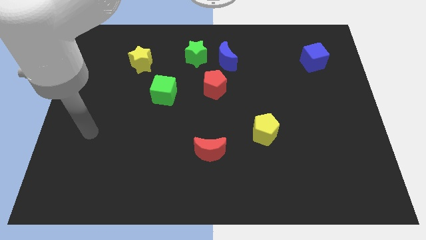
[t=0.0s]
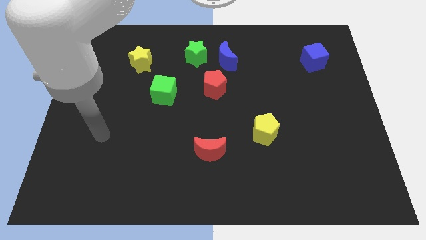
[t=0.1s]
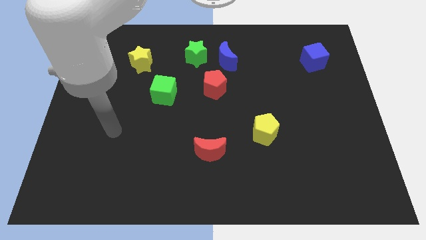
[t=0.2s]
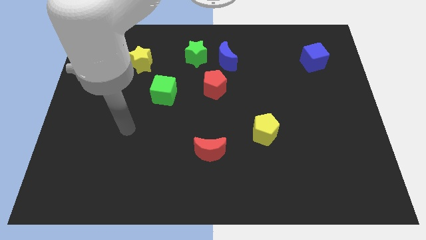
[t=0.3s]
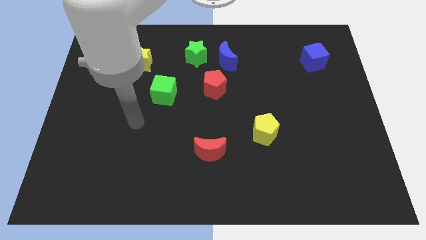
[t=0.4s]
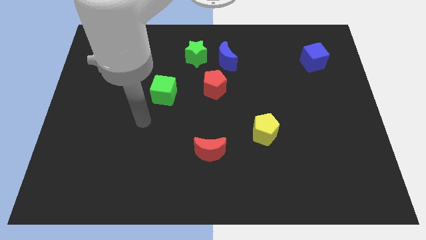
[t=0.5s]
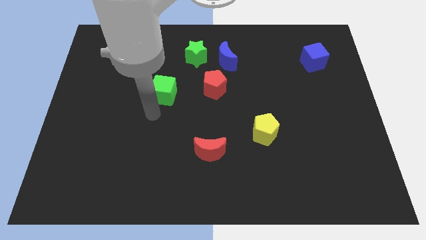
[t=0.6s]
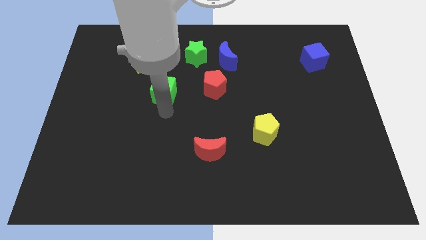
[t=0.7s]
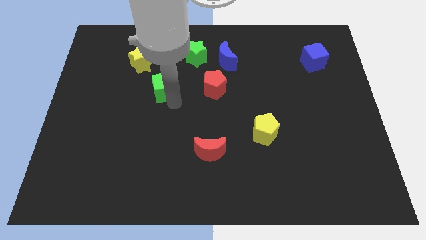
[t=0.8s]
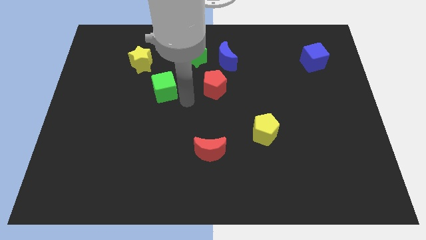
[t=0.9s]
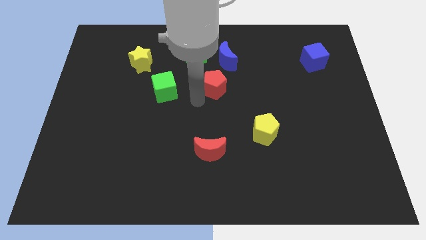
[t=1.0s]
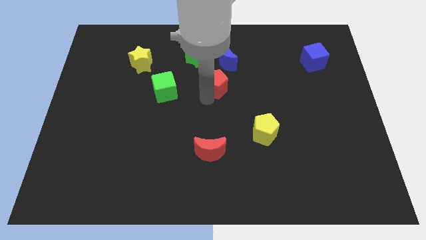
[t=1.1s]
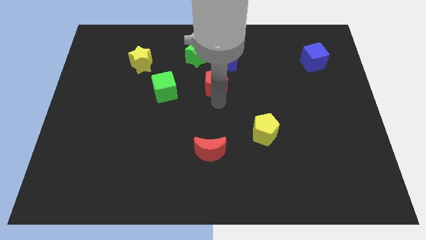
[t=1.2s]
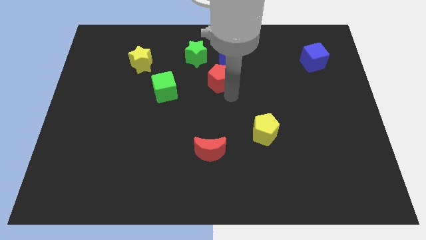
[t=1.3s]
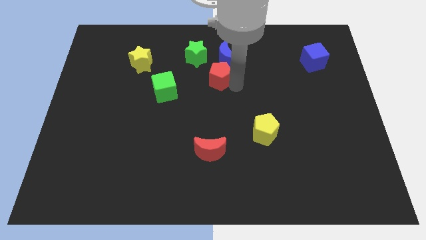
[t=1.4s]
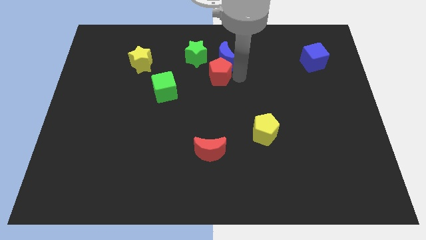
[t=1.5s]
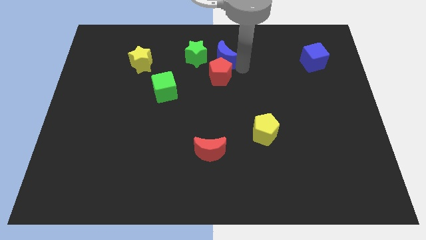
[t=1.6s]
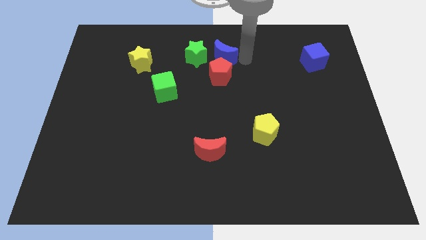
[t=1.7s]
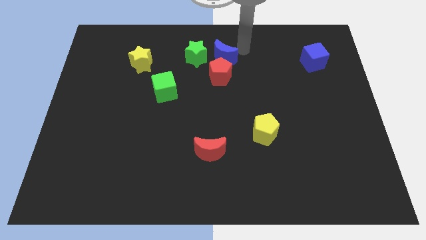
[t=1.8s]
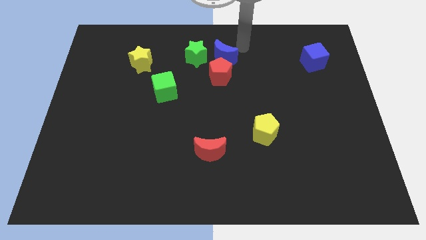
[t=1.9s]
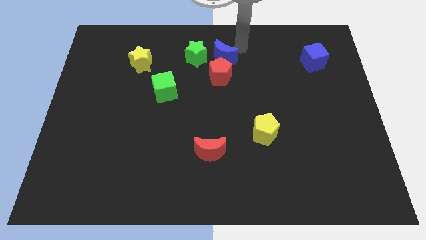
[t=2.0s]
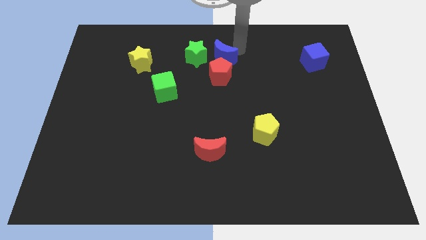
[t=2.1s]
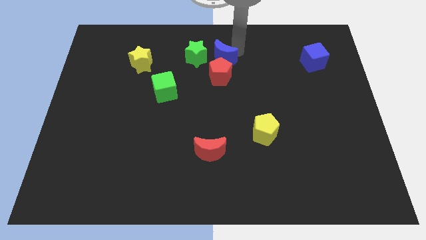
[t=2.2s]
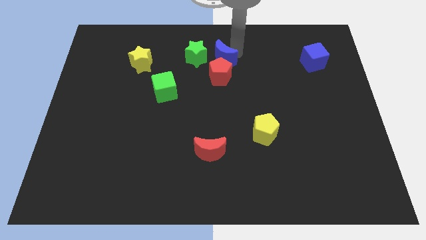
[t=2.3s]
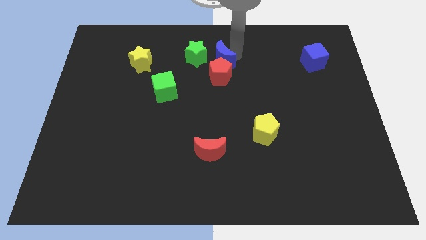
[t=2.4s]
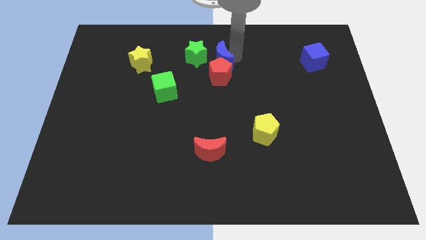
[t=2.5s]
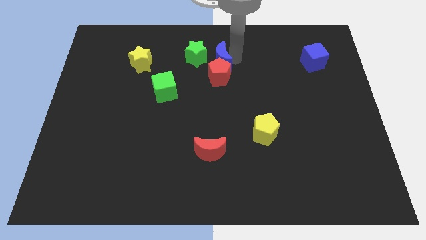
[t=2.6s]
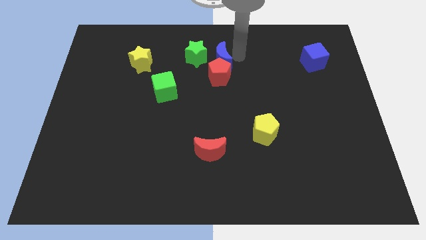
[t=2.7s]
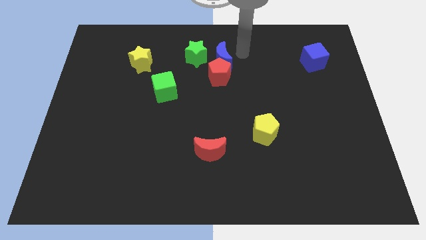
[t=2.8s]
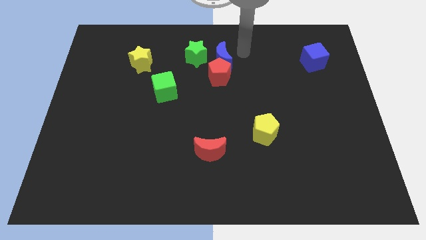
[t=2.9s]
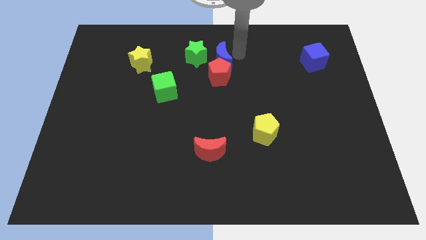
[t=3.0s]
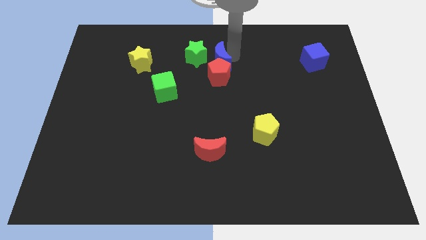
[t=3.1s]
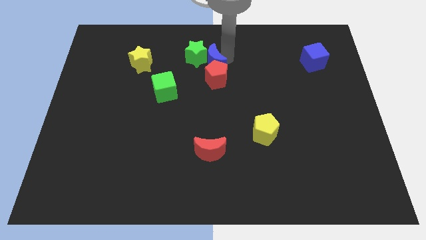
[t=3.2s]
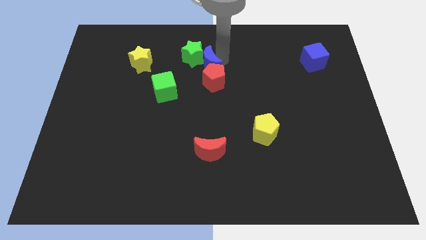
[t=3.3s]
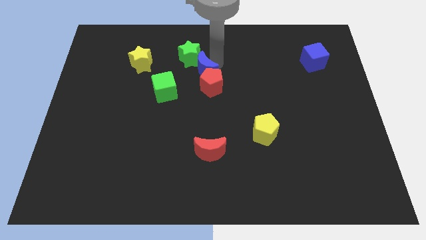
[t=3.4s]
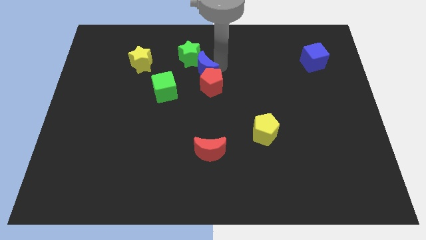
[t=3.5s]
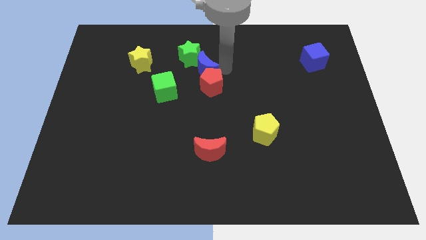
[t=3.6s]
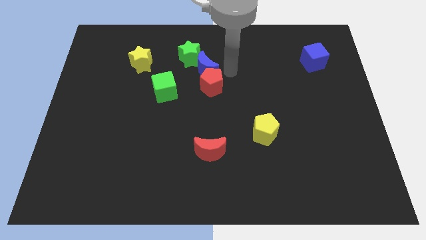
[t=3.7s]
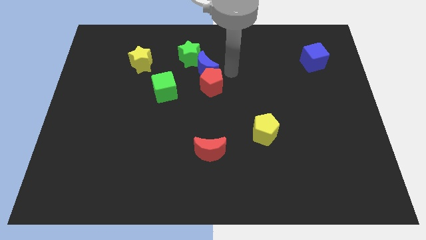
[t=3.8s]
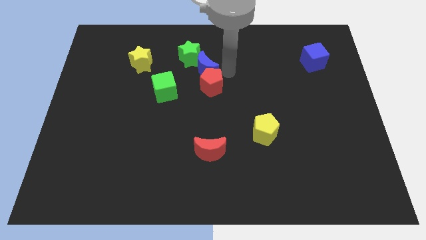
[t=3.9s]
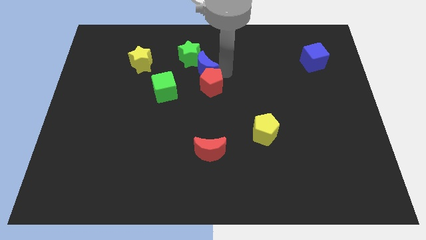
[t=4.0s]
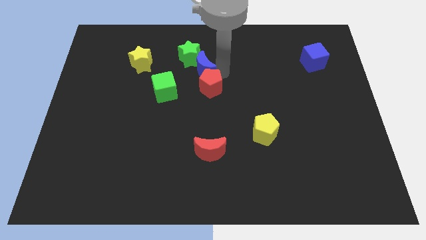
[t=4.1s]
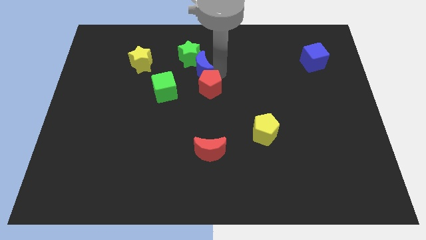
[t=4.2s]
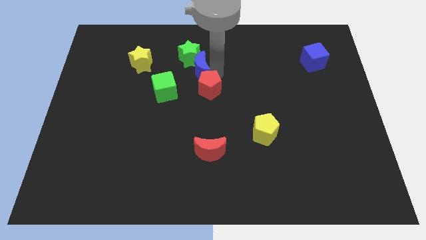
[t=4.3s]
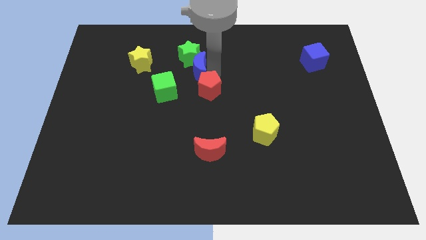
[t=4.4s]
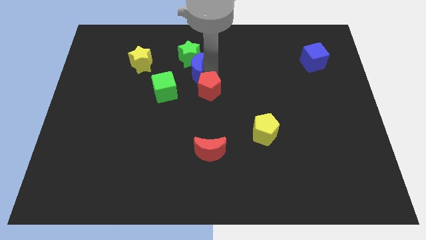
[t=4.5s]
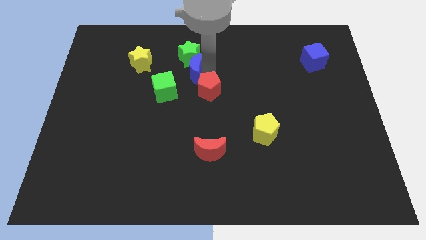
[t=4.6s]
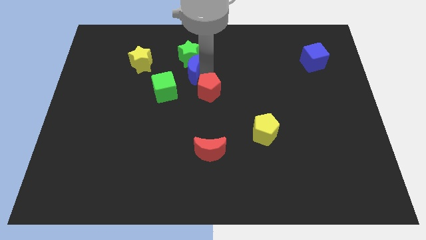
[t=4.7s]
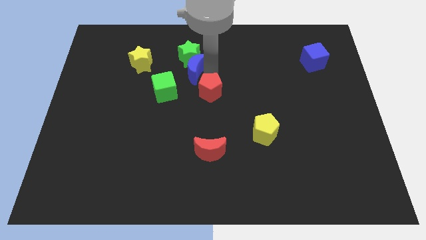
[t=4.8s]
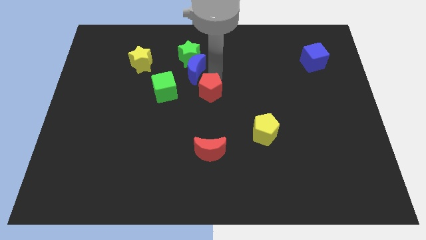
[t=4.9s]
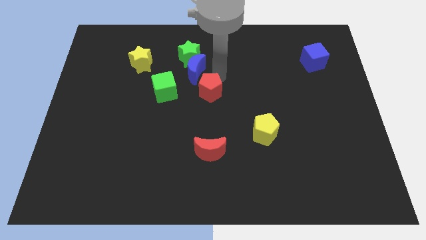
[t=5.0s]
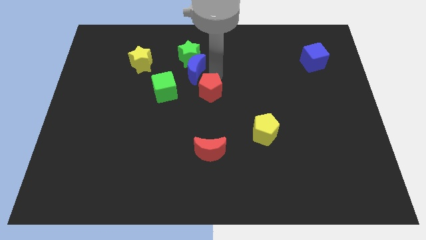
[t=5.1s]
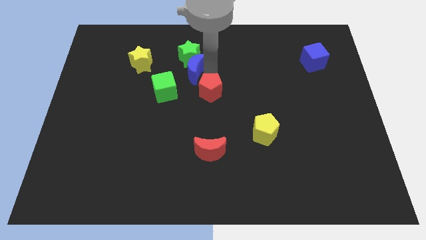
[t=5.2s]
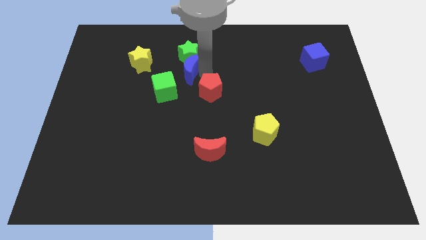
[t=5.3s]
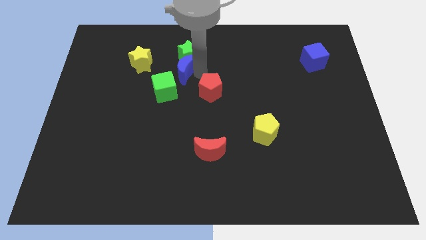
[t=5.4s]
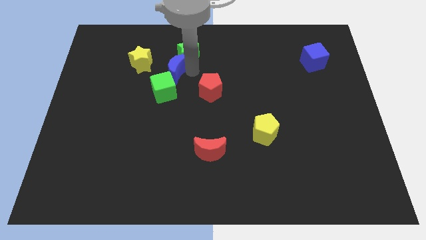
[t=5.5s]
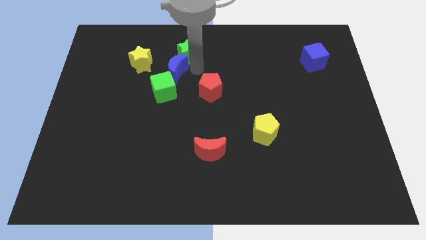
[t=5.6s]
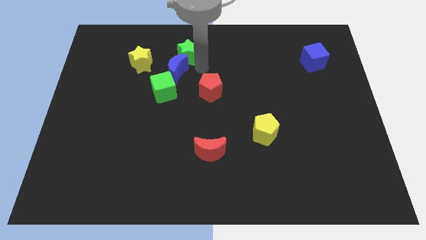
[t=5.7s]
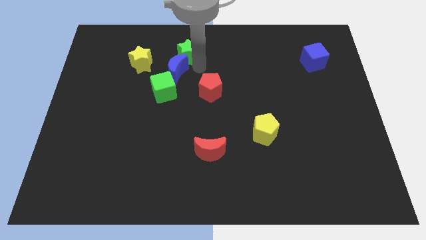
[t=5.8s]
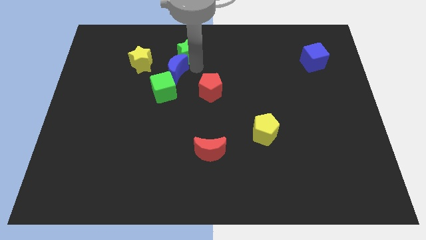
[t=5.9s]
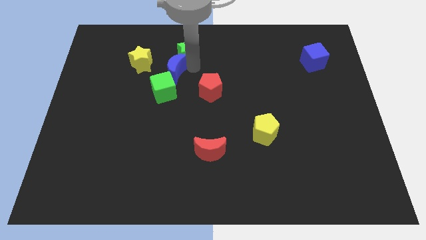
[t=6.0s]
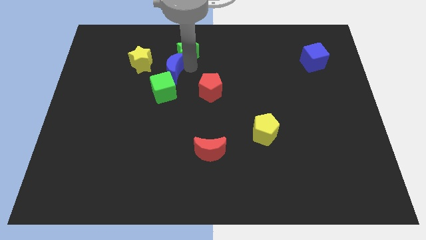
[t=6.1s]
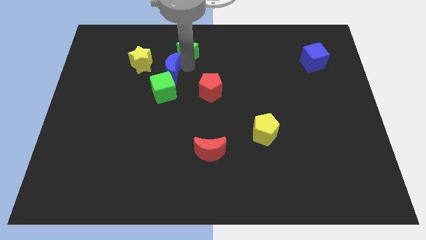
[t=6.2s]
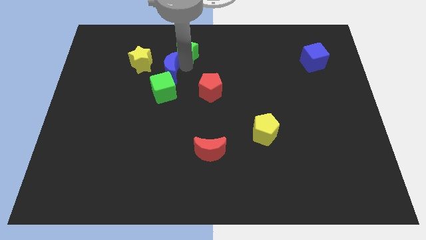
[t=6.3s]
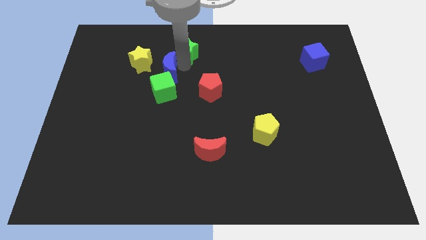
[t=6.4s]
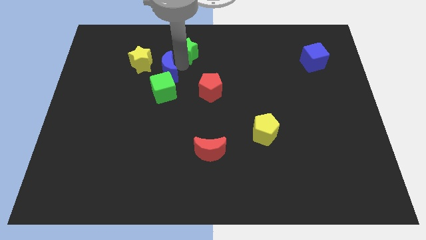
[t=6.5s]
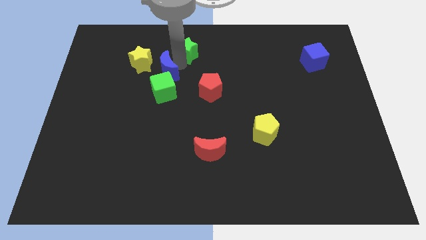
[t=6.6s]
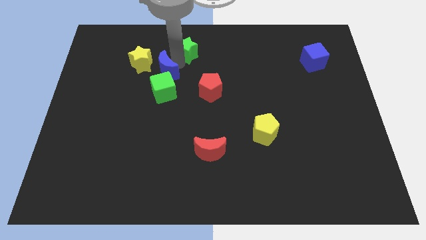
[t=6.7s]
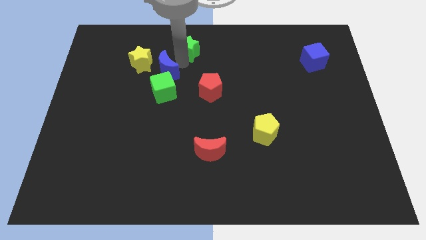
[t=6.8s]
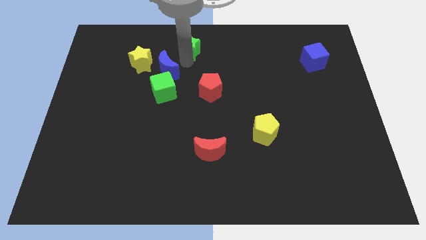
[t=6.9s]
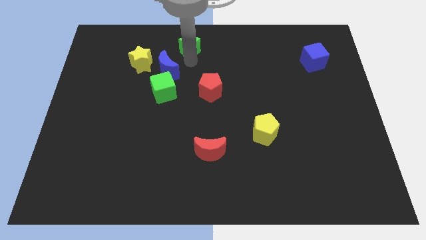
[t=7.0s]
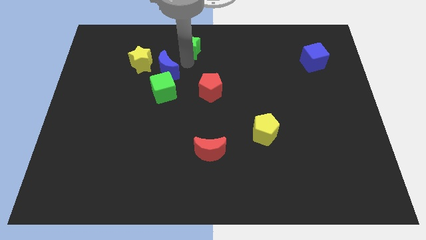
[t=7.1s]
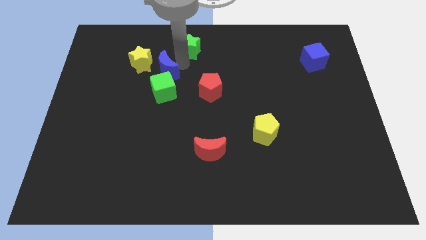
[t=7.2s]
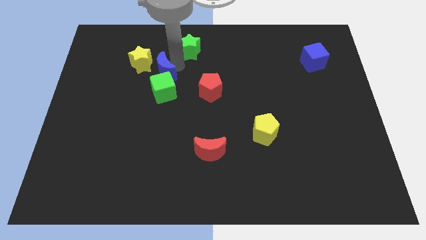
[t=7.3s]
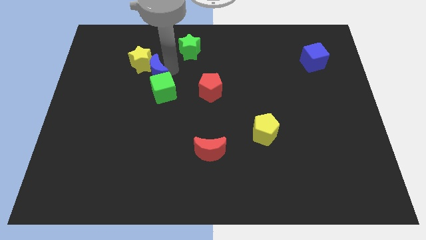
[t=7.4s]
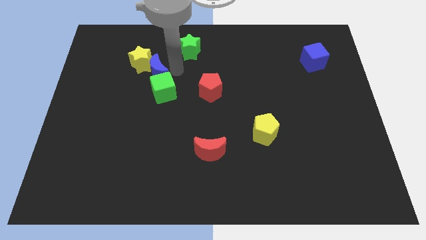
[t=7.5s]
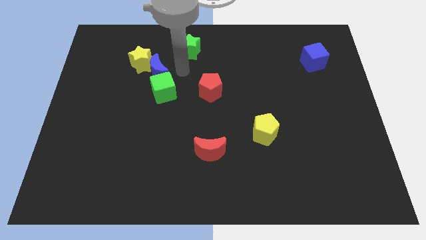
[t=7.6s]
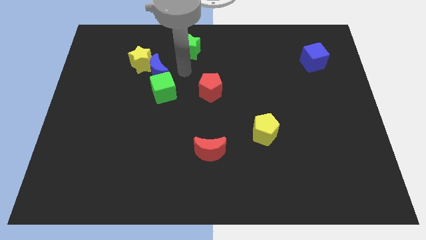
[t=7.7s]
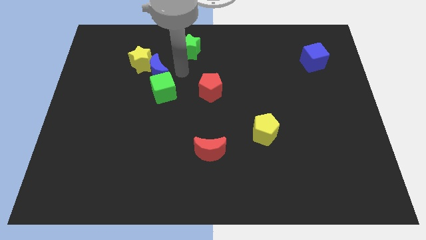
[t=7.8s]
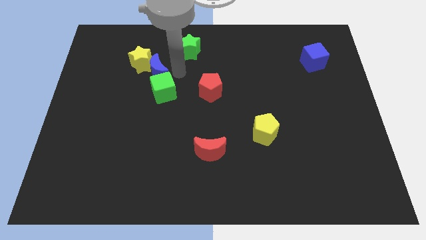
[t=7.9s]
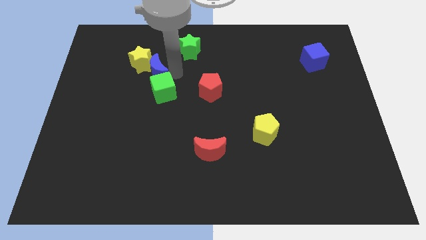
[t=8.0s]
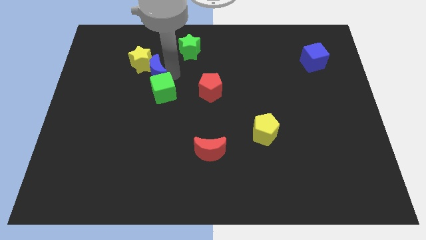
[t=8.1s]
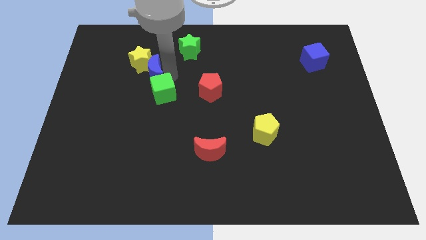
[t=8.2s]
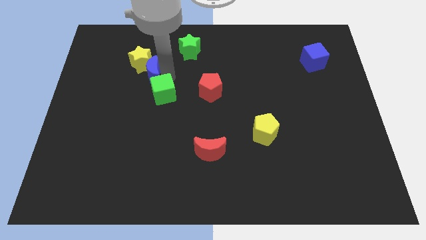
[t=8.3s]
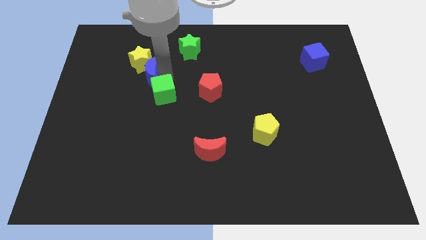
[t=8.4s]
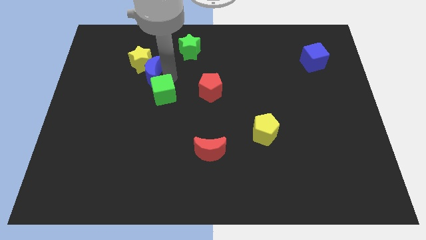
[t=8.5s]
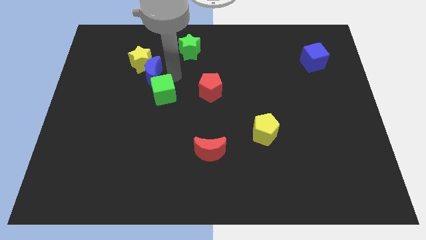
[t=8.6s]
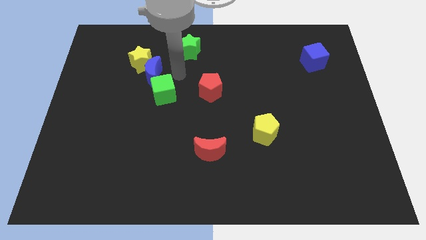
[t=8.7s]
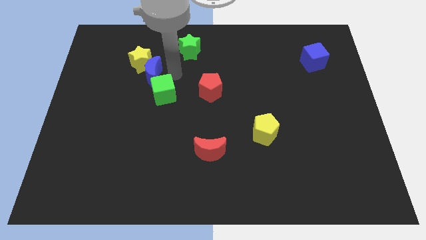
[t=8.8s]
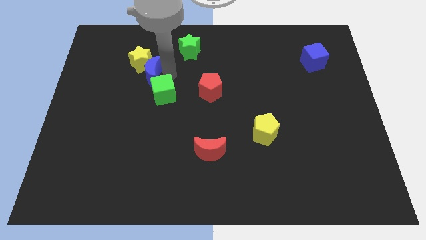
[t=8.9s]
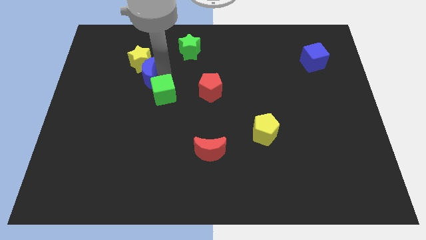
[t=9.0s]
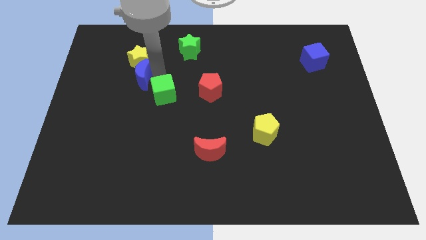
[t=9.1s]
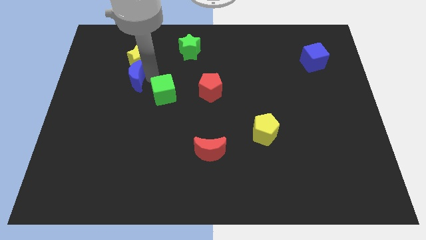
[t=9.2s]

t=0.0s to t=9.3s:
move the blue moon to the left
